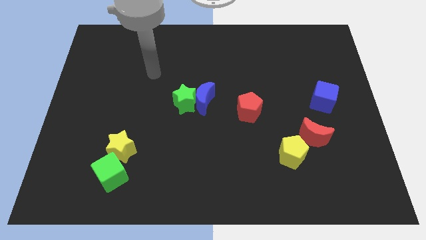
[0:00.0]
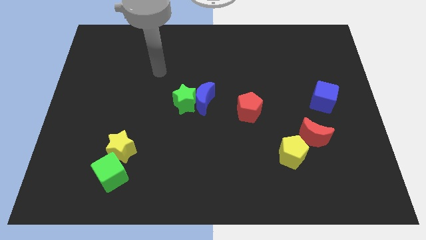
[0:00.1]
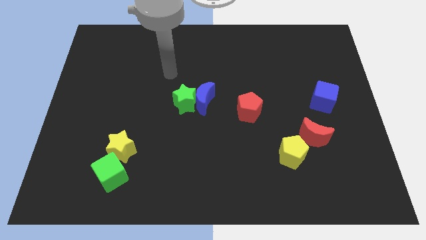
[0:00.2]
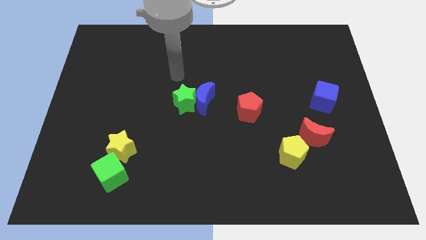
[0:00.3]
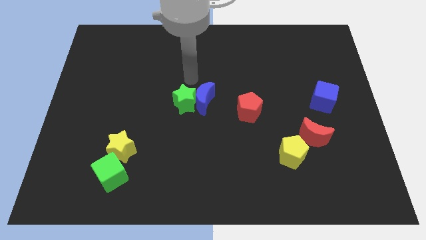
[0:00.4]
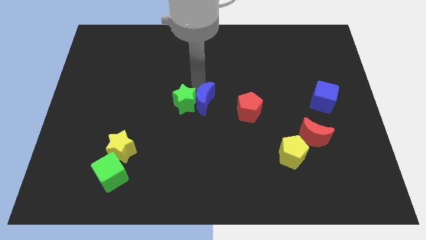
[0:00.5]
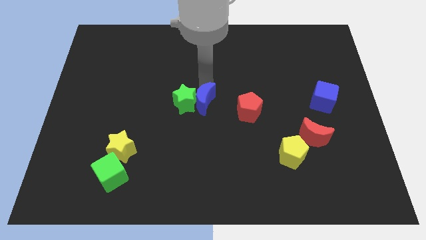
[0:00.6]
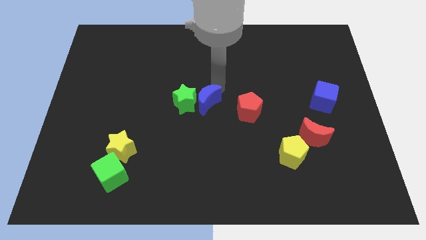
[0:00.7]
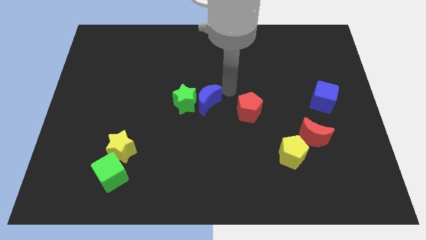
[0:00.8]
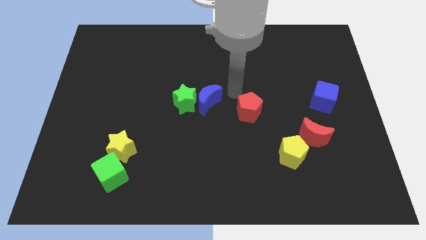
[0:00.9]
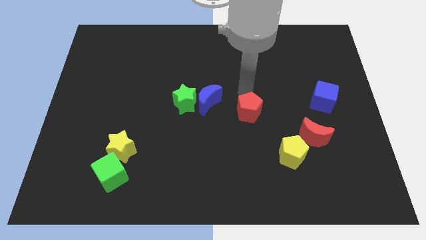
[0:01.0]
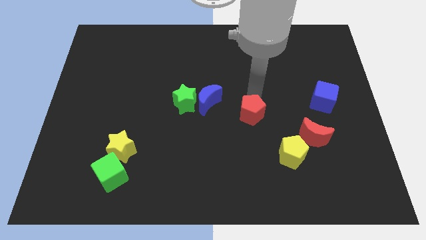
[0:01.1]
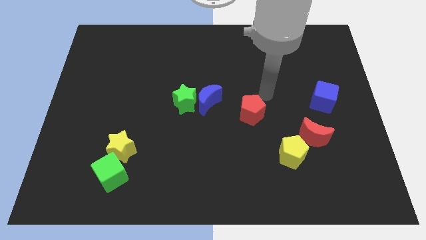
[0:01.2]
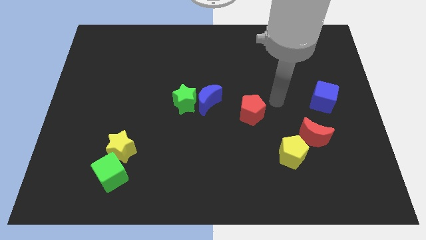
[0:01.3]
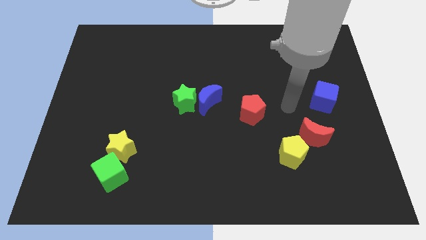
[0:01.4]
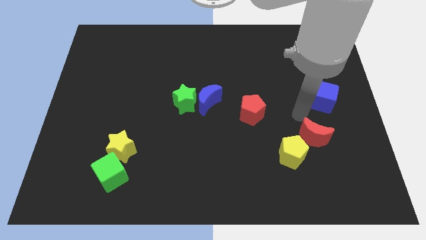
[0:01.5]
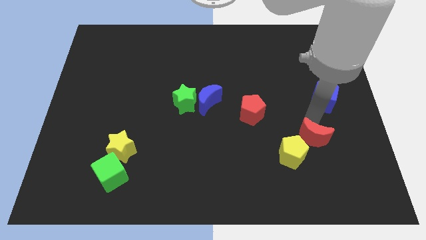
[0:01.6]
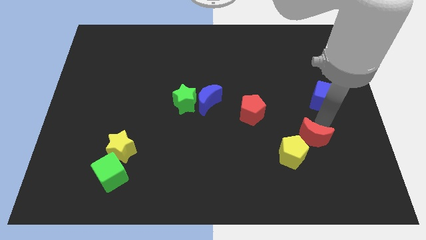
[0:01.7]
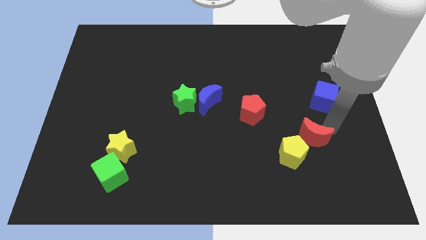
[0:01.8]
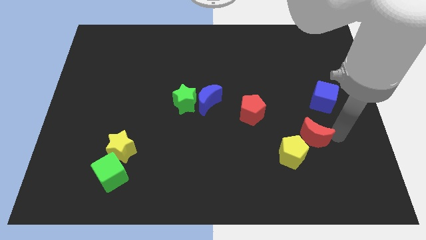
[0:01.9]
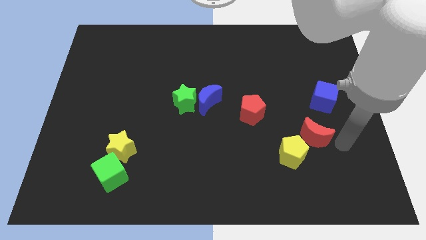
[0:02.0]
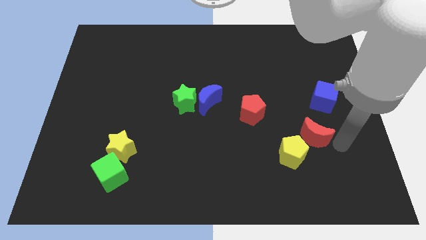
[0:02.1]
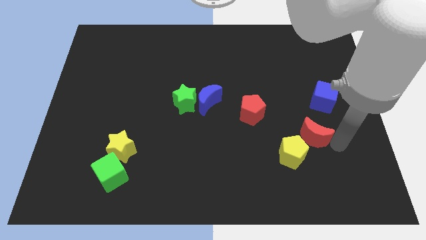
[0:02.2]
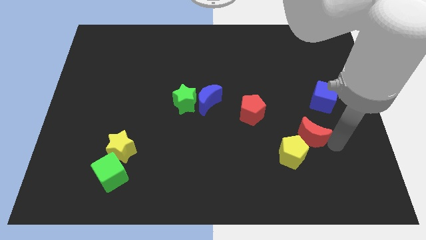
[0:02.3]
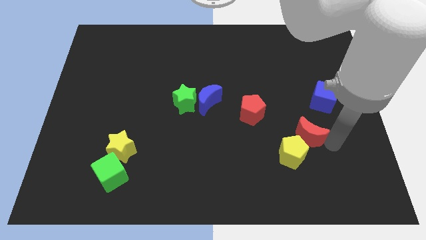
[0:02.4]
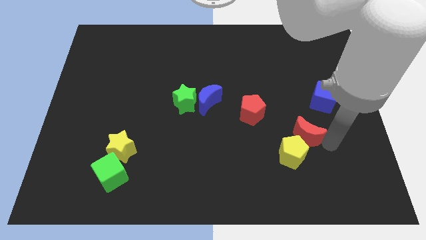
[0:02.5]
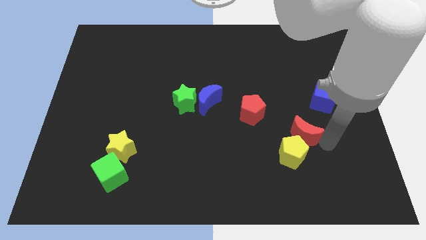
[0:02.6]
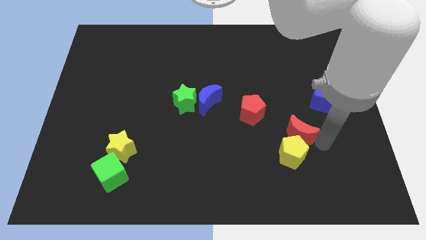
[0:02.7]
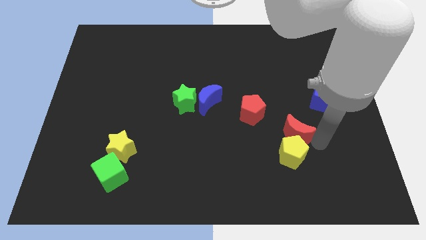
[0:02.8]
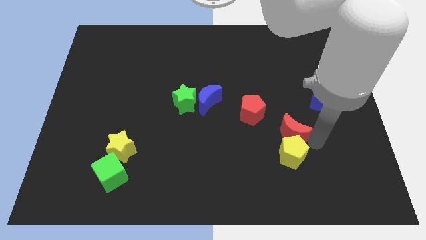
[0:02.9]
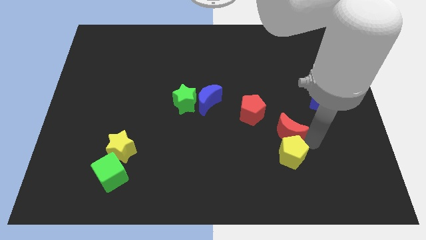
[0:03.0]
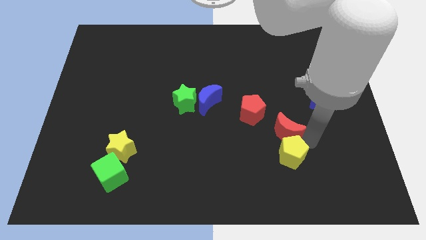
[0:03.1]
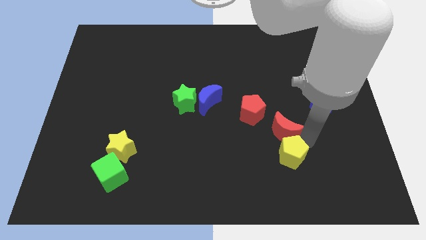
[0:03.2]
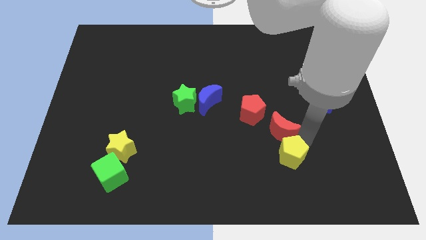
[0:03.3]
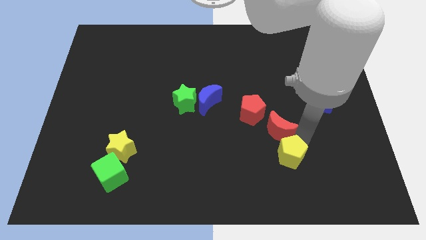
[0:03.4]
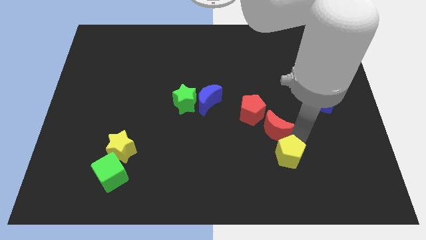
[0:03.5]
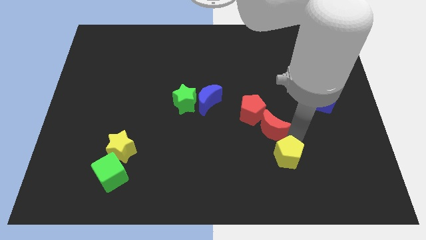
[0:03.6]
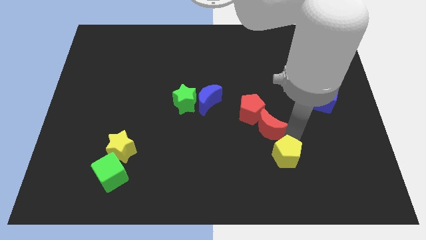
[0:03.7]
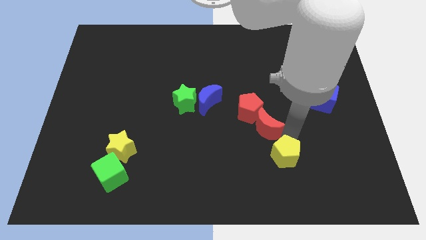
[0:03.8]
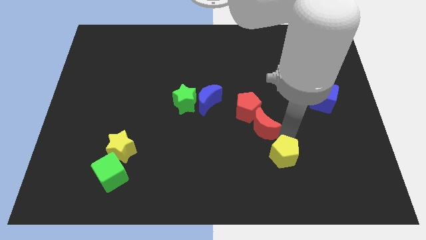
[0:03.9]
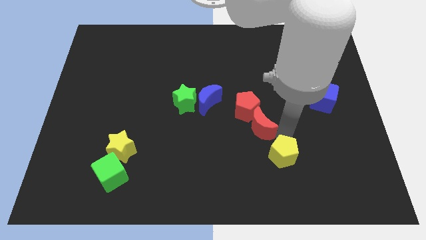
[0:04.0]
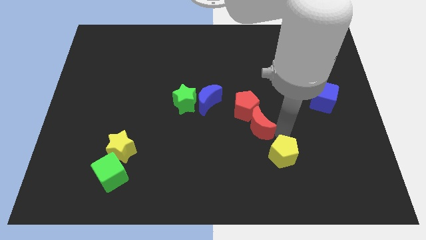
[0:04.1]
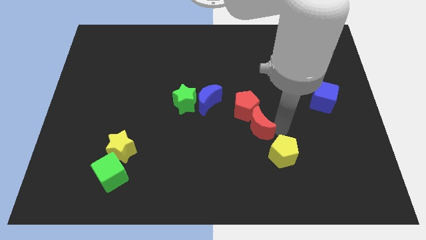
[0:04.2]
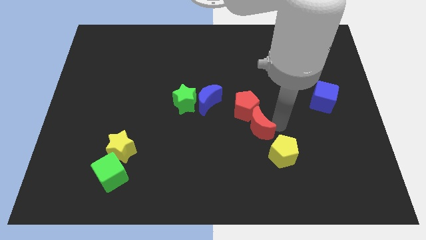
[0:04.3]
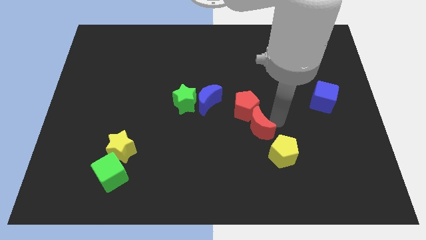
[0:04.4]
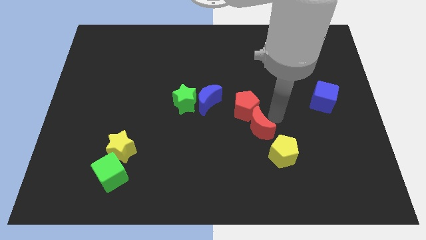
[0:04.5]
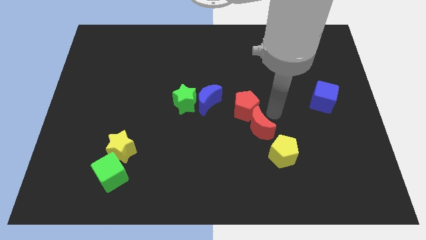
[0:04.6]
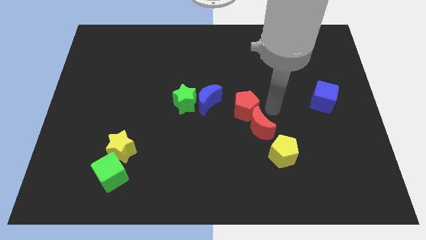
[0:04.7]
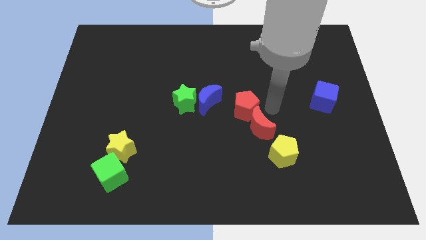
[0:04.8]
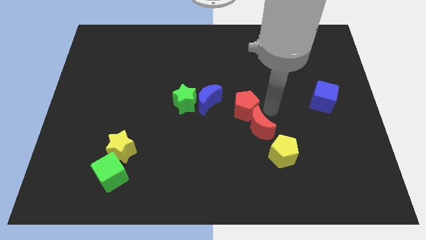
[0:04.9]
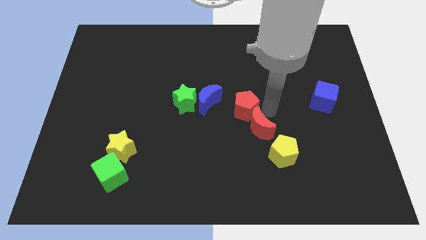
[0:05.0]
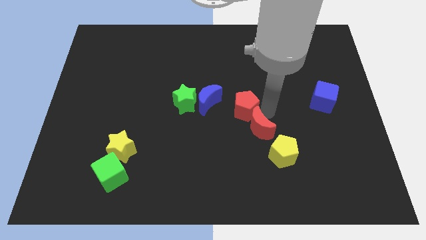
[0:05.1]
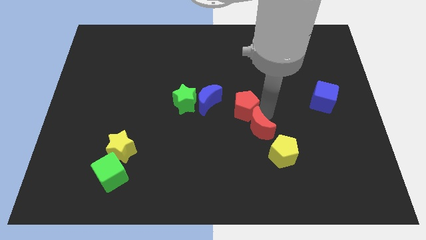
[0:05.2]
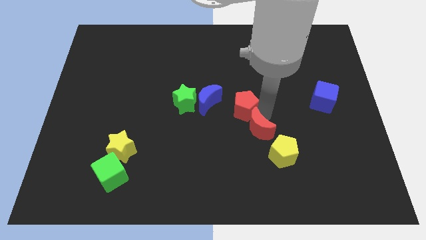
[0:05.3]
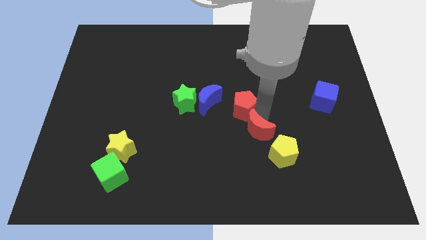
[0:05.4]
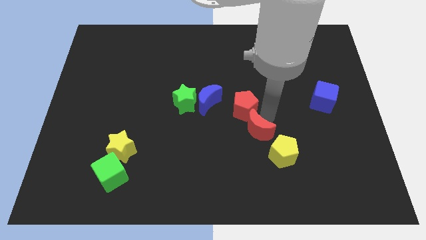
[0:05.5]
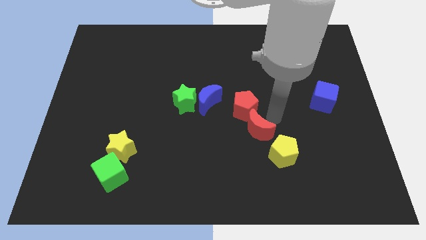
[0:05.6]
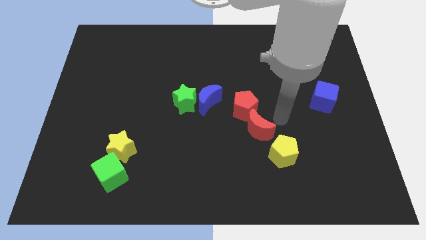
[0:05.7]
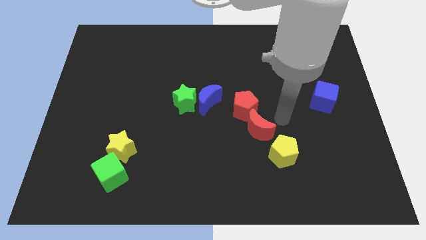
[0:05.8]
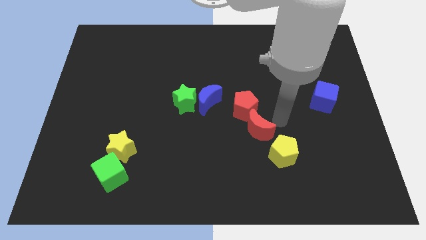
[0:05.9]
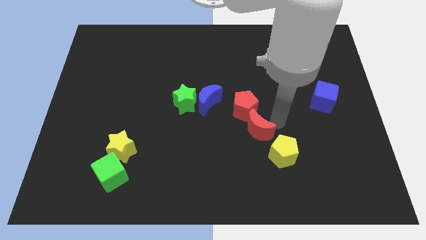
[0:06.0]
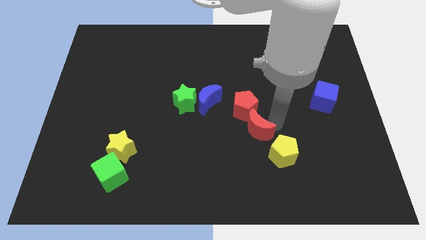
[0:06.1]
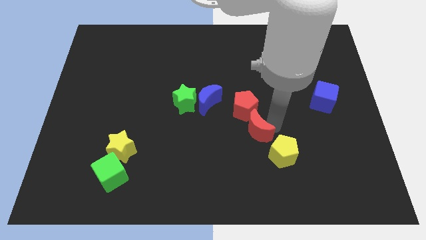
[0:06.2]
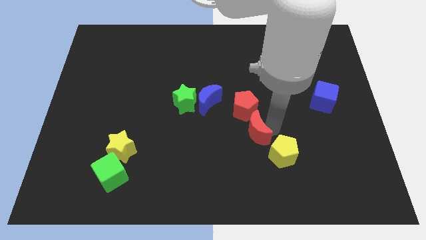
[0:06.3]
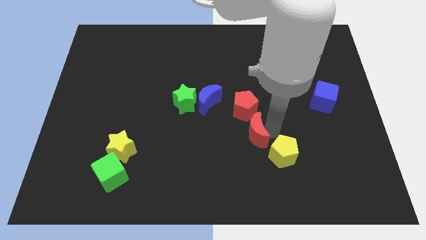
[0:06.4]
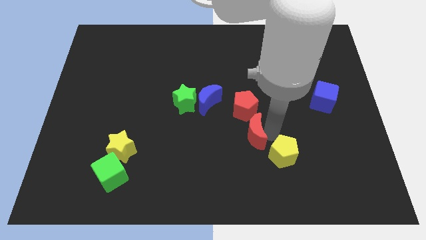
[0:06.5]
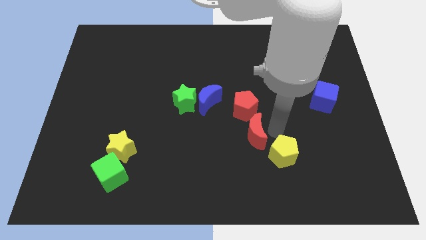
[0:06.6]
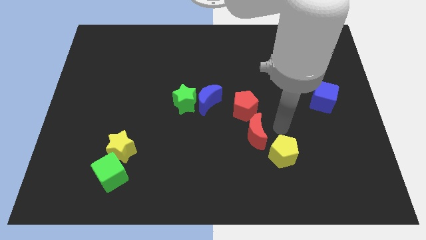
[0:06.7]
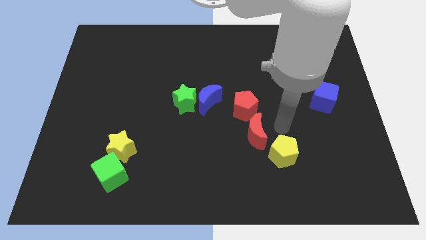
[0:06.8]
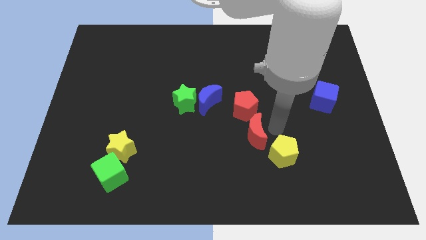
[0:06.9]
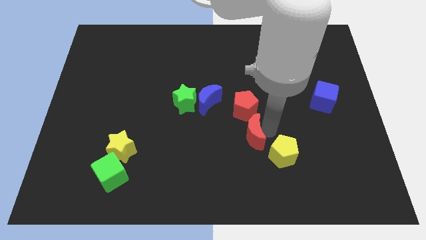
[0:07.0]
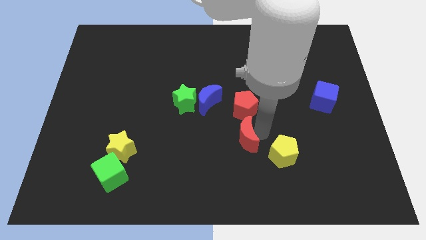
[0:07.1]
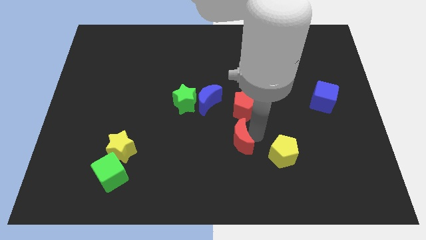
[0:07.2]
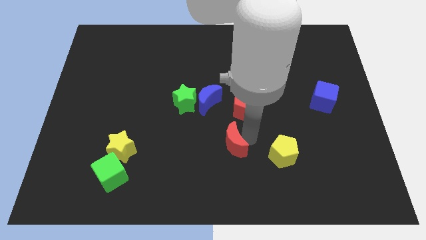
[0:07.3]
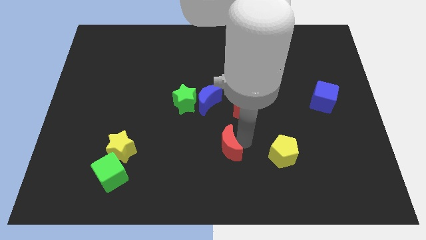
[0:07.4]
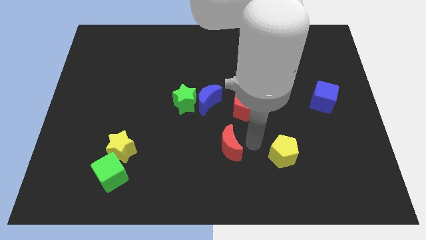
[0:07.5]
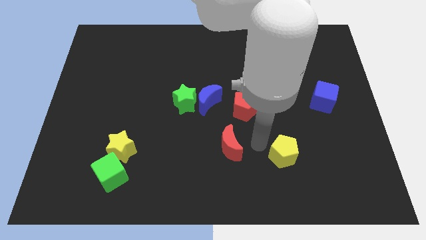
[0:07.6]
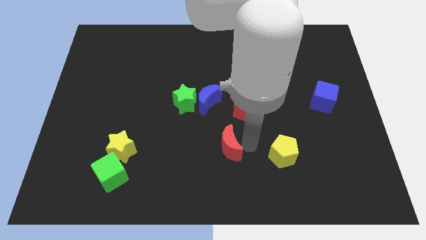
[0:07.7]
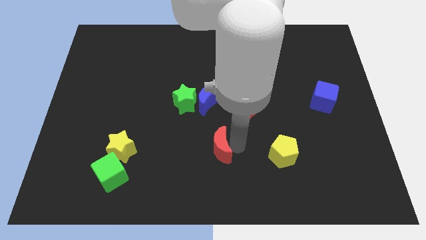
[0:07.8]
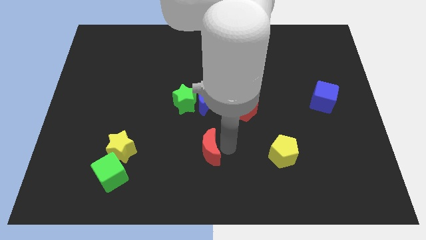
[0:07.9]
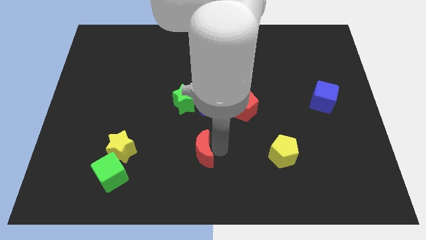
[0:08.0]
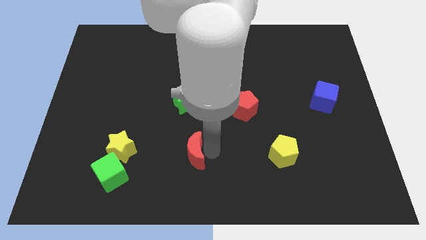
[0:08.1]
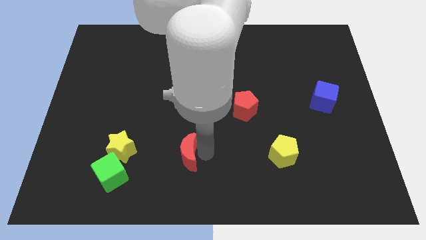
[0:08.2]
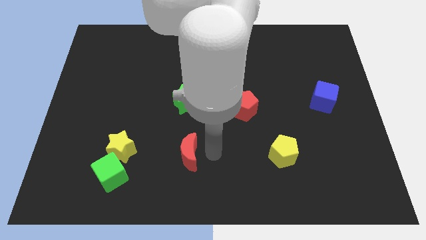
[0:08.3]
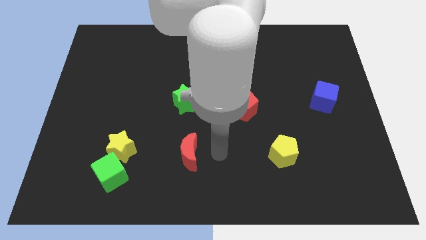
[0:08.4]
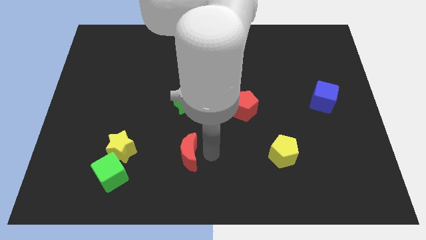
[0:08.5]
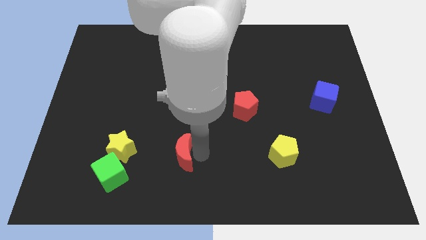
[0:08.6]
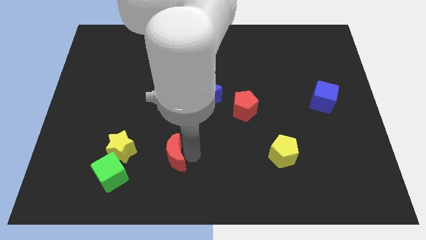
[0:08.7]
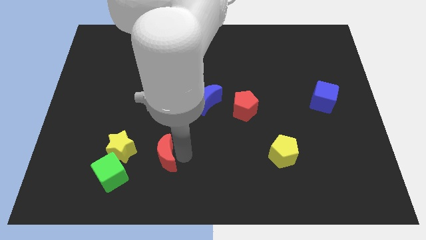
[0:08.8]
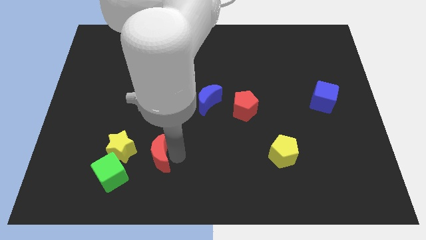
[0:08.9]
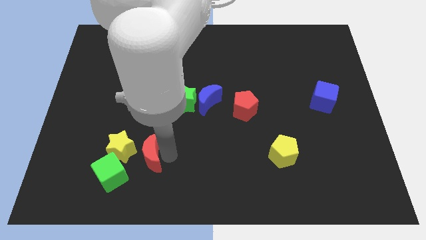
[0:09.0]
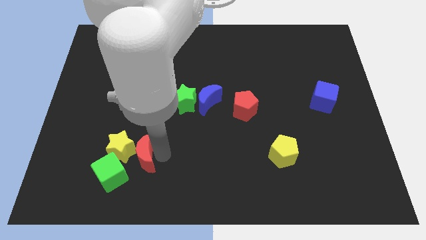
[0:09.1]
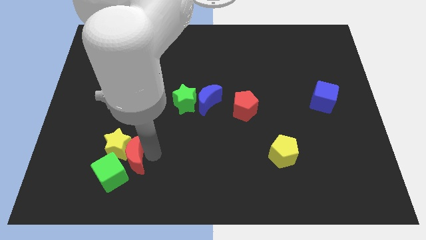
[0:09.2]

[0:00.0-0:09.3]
move the red moon to the green cube
